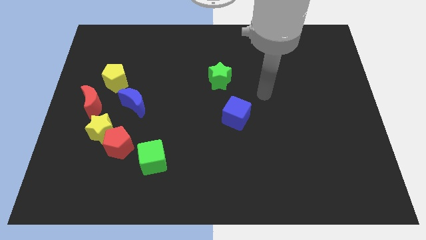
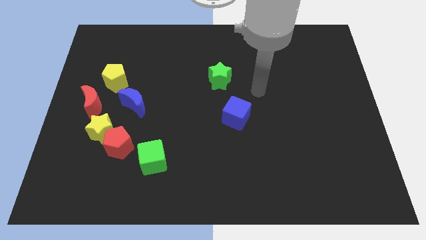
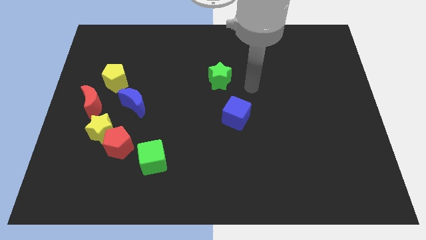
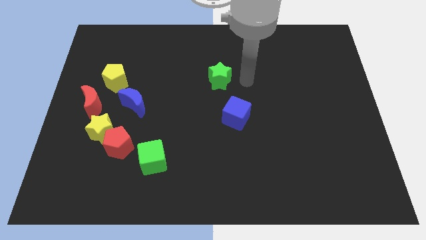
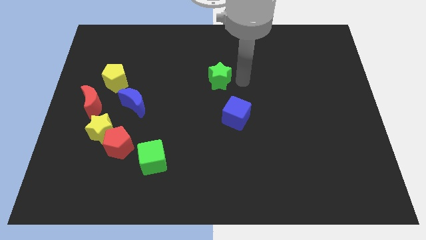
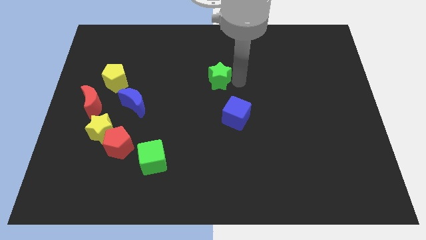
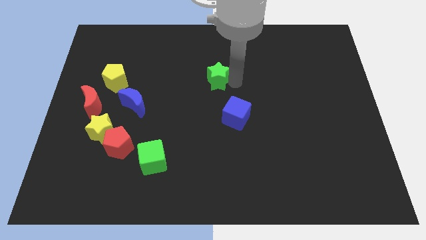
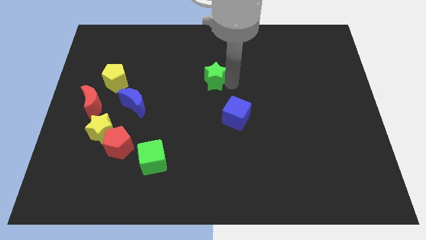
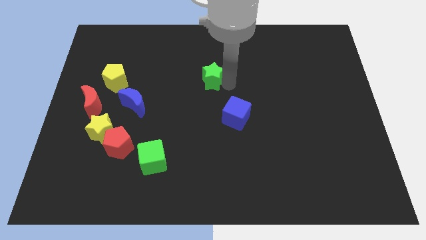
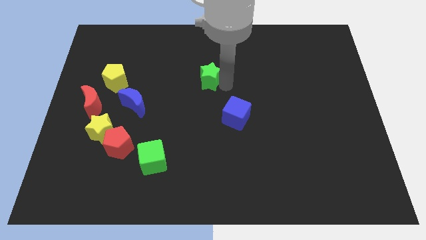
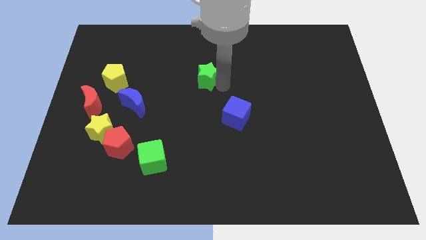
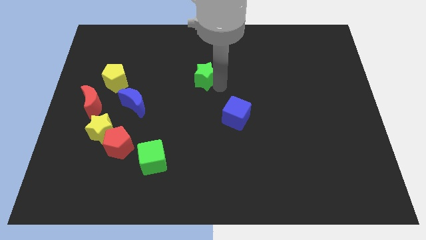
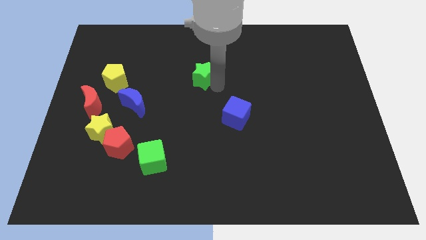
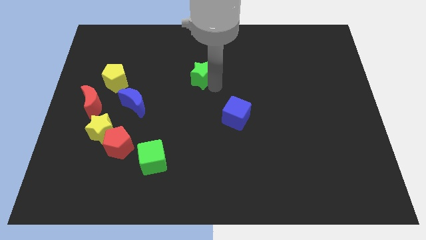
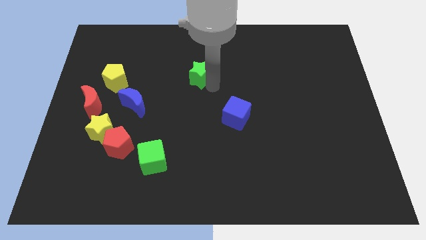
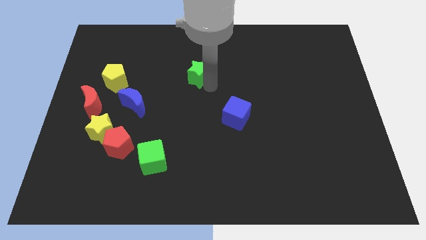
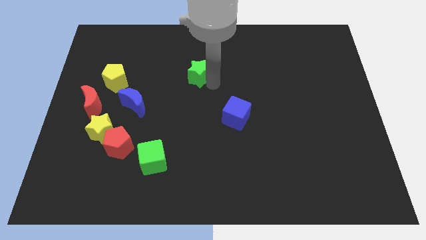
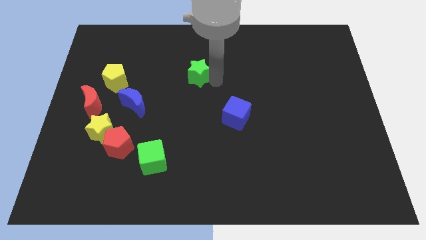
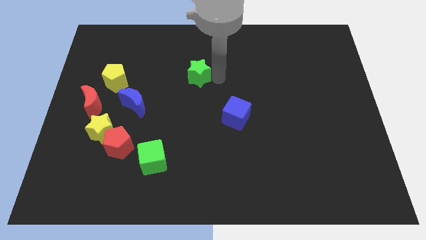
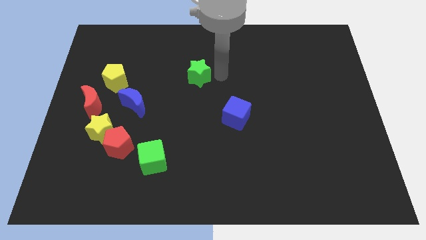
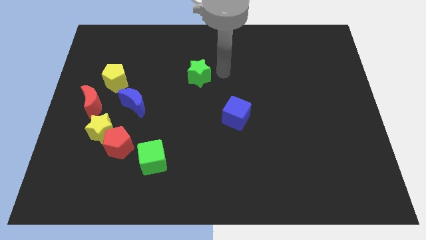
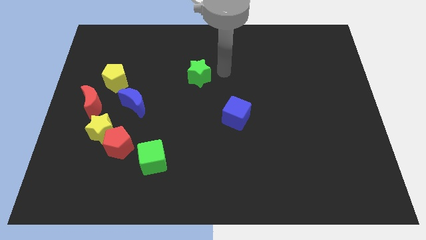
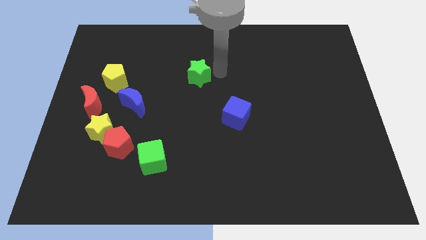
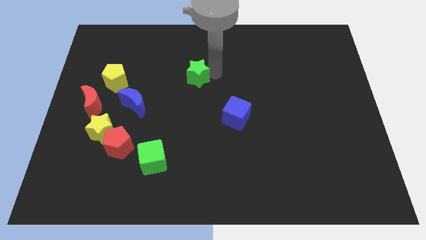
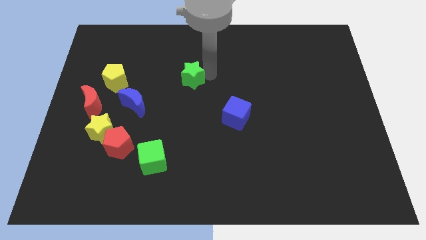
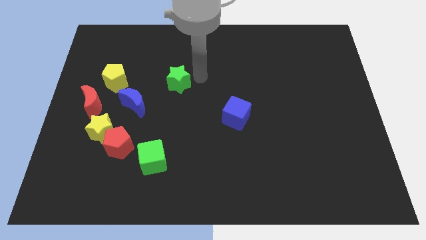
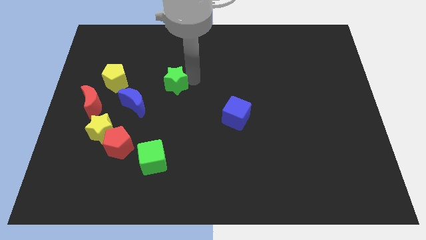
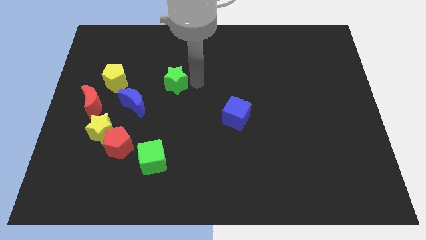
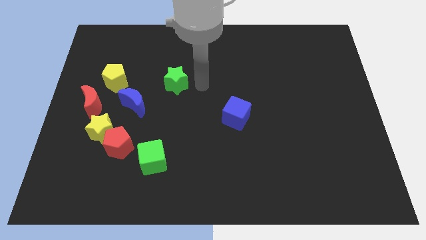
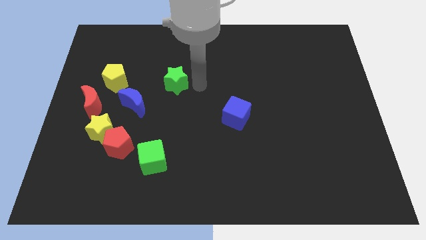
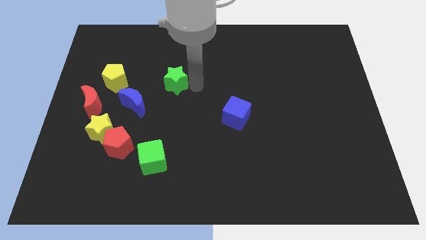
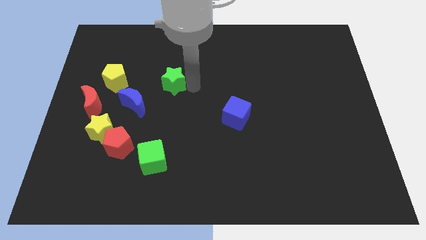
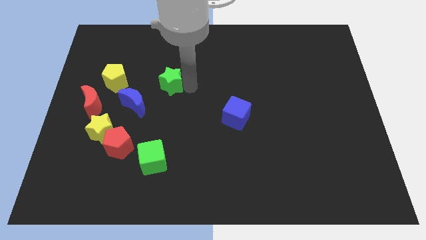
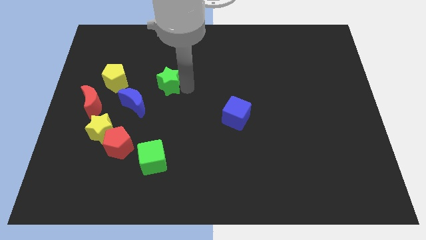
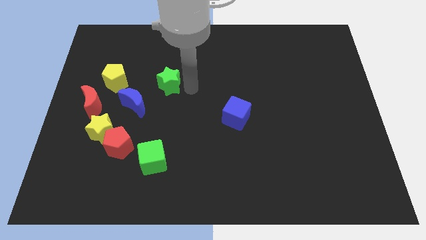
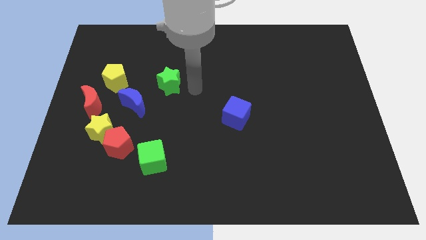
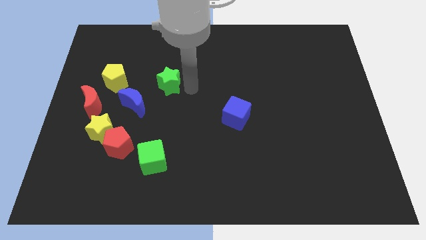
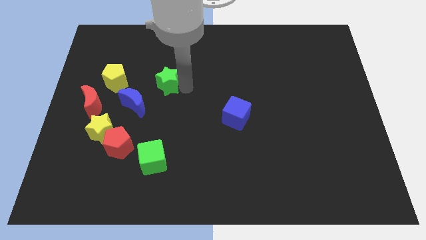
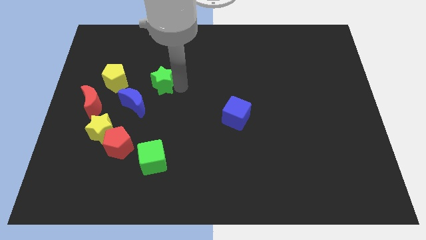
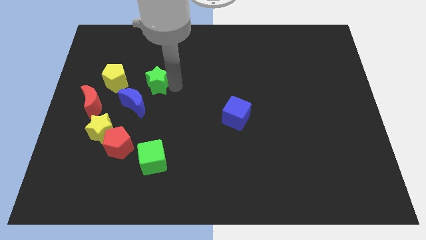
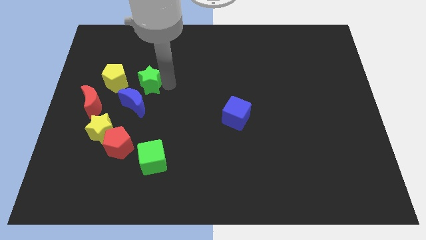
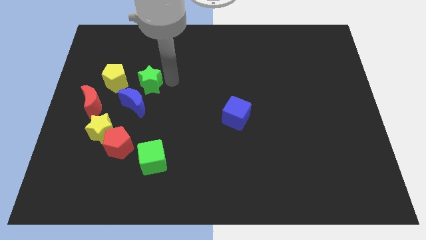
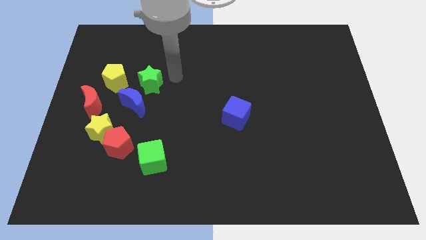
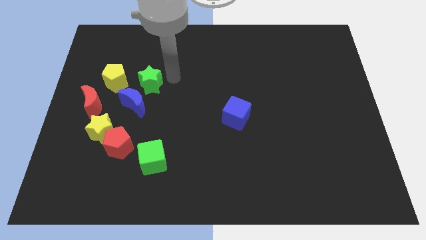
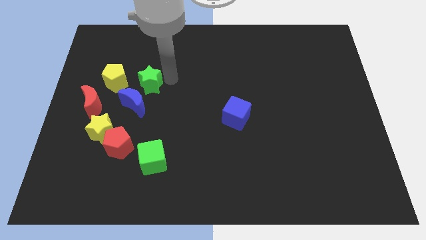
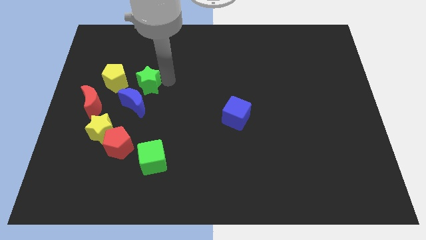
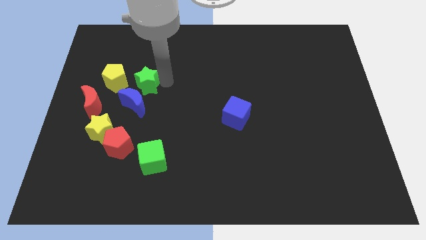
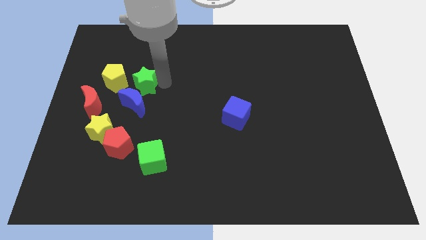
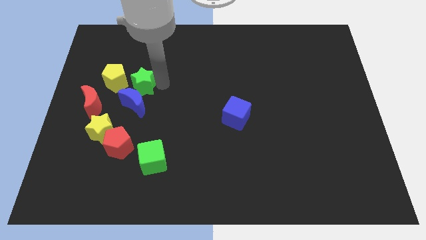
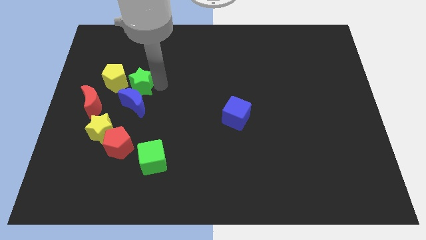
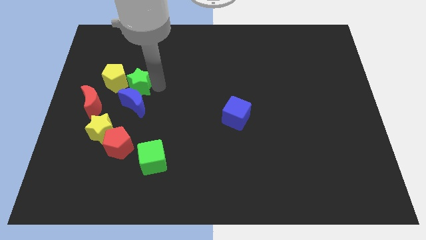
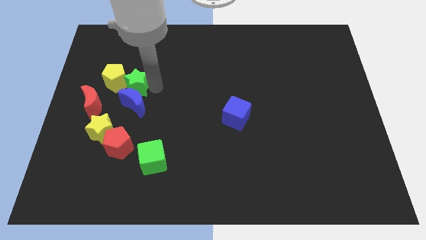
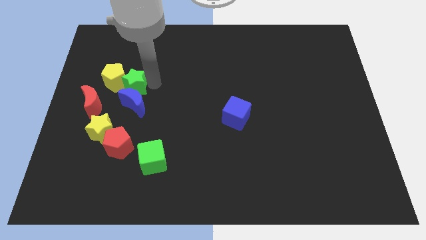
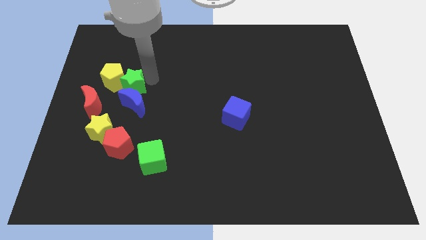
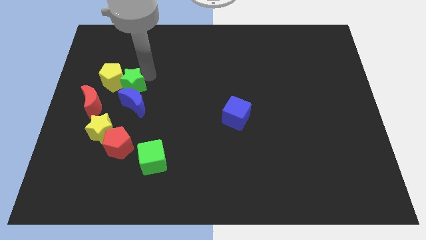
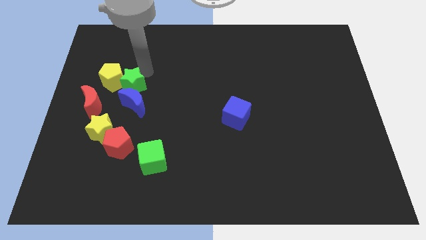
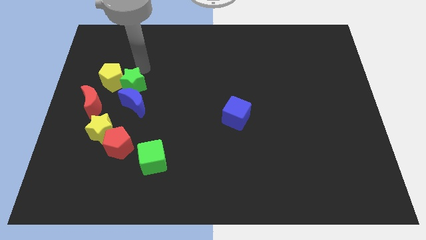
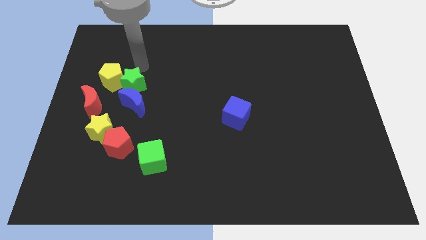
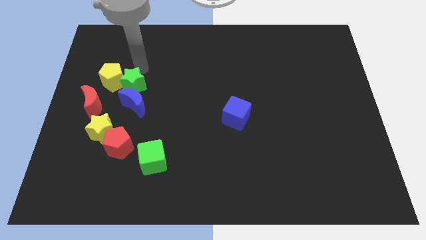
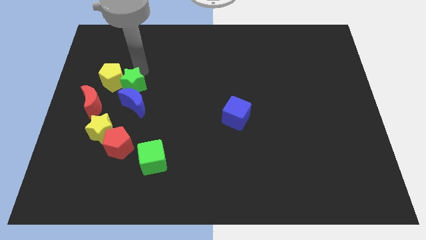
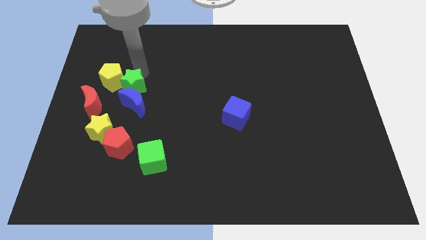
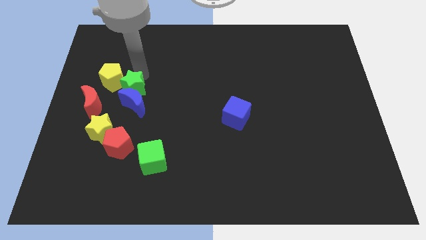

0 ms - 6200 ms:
slide the green star above the red pentagon
